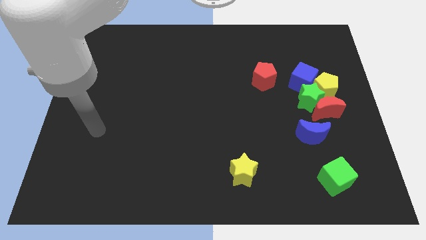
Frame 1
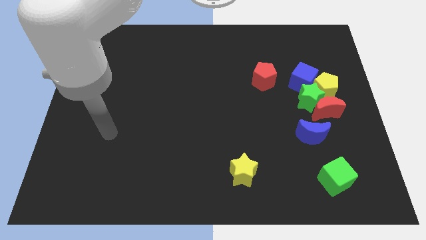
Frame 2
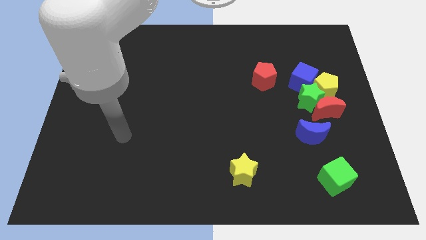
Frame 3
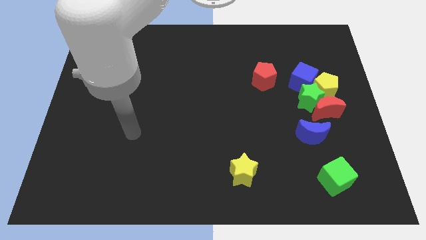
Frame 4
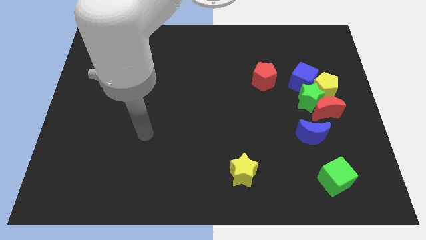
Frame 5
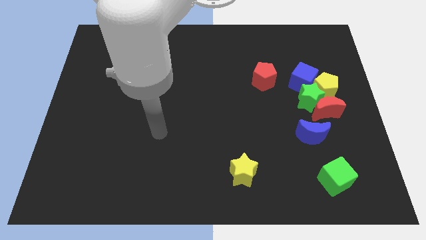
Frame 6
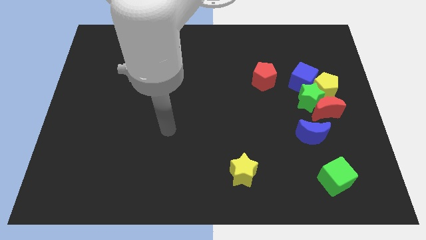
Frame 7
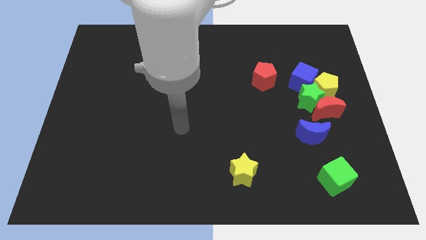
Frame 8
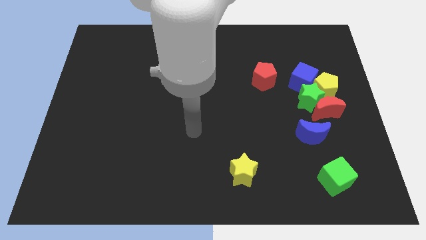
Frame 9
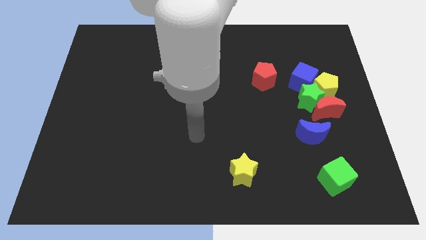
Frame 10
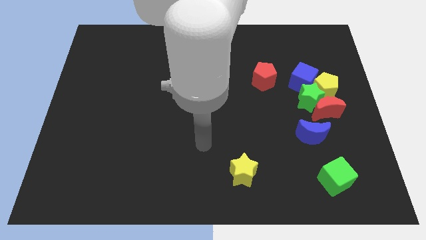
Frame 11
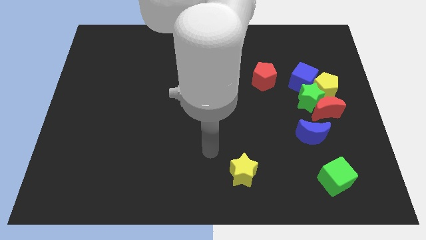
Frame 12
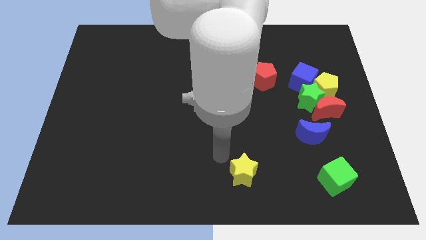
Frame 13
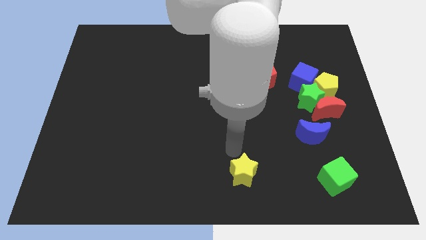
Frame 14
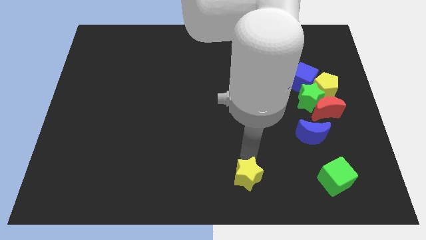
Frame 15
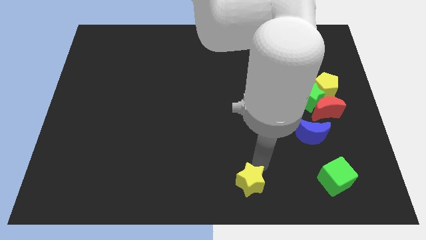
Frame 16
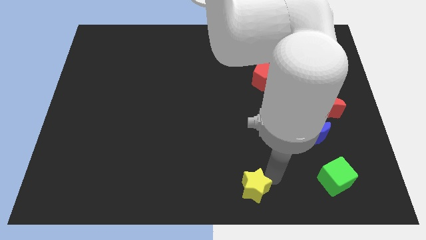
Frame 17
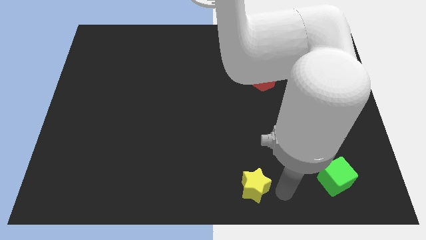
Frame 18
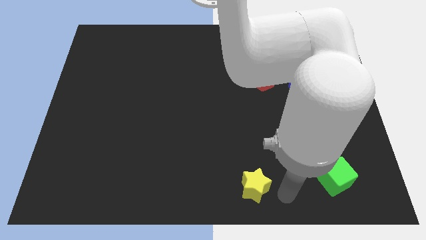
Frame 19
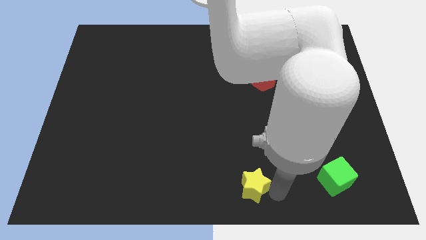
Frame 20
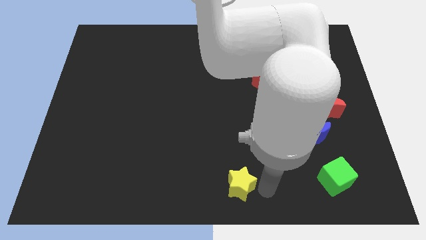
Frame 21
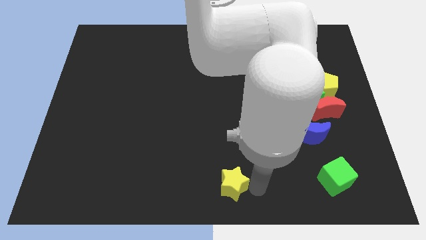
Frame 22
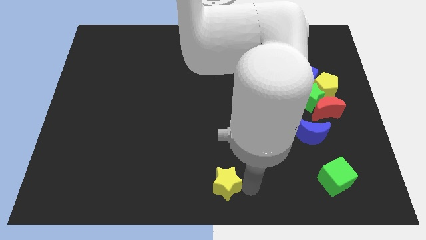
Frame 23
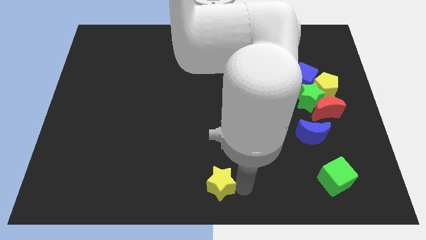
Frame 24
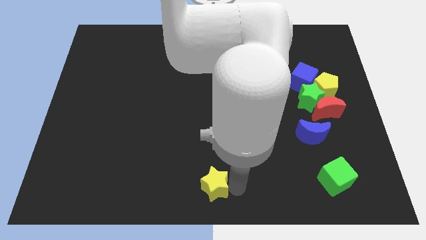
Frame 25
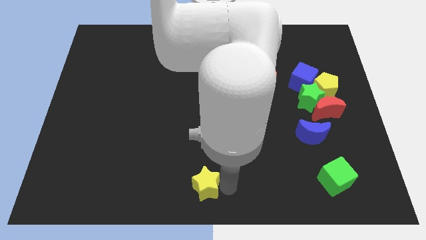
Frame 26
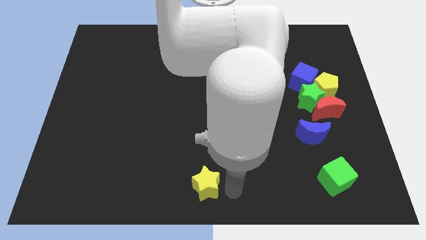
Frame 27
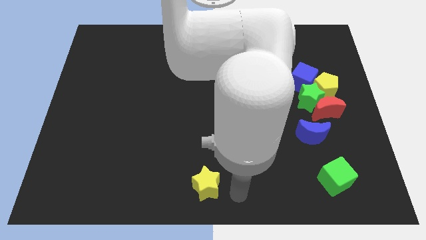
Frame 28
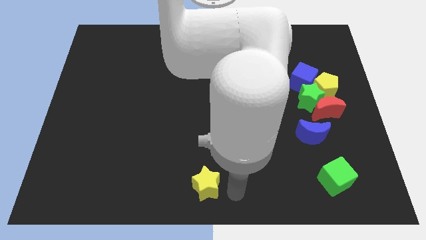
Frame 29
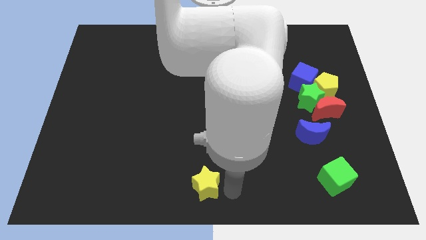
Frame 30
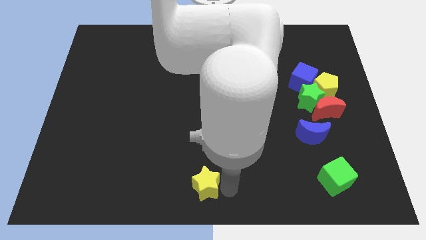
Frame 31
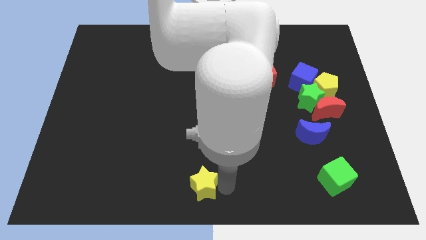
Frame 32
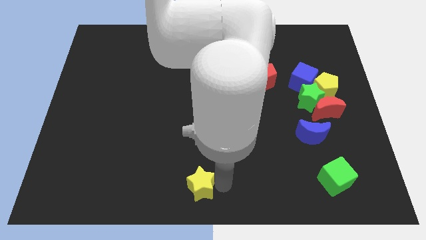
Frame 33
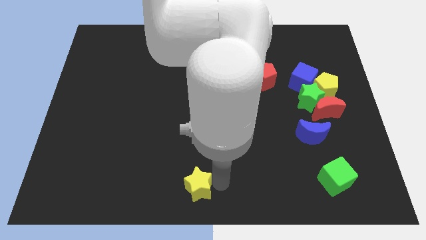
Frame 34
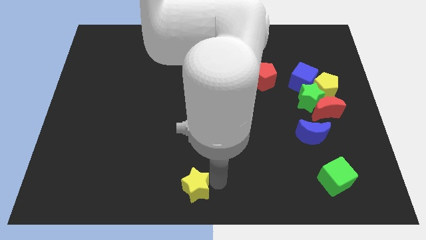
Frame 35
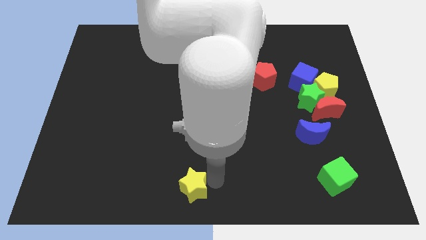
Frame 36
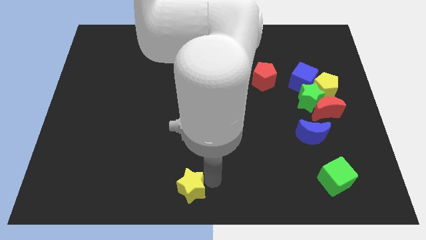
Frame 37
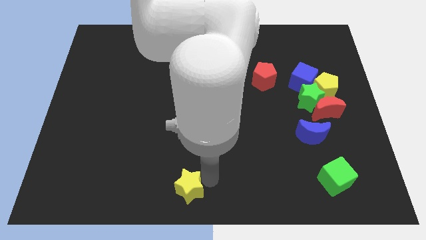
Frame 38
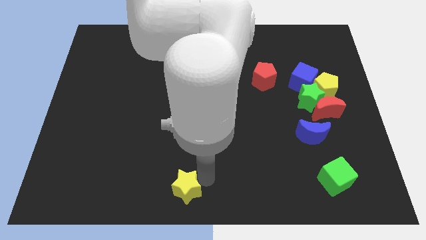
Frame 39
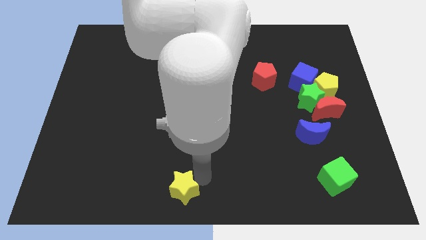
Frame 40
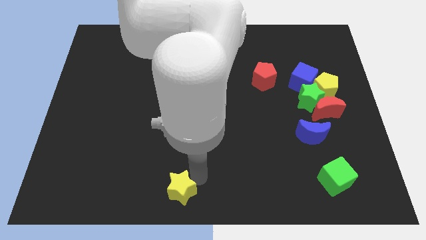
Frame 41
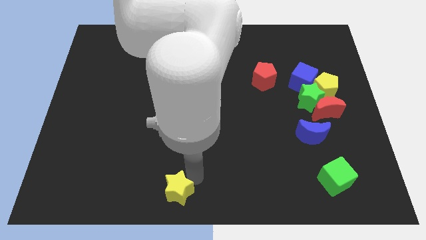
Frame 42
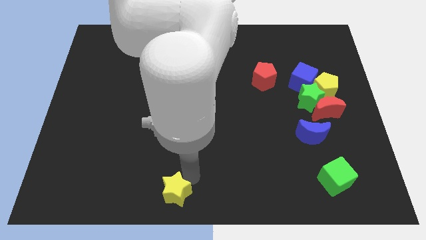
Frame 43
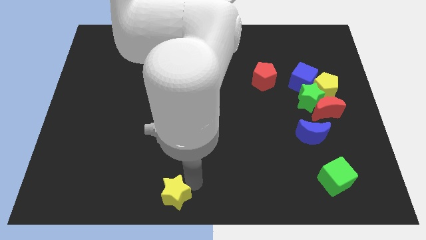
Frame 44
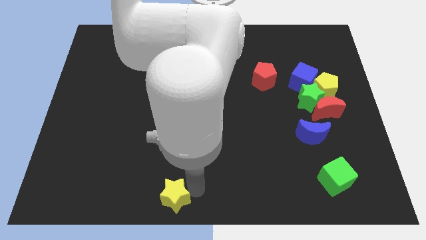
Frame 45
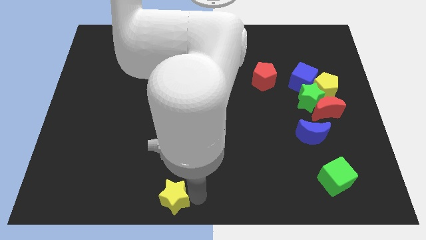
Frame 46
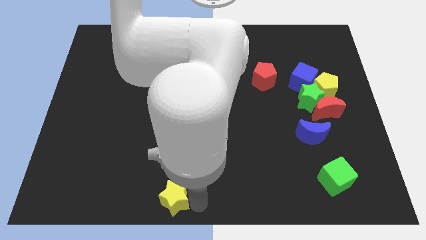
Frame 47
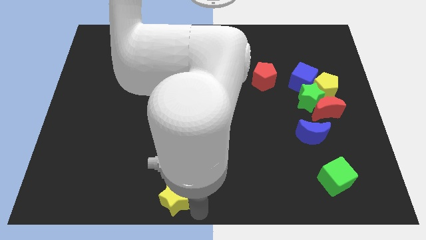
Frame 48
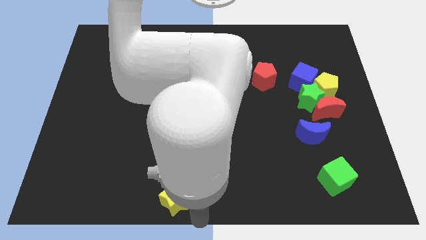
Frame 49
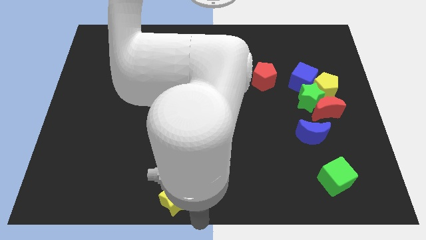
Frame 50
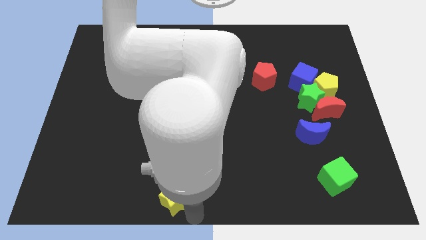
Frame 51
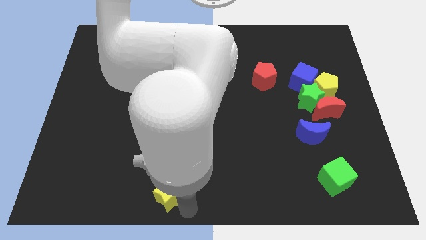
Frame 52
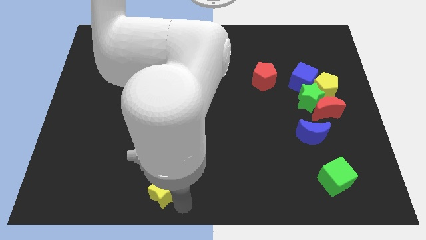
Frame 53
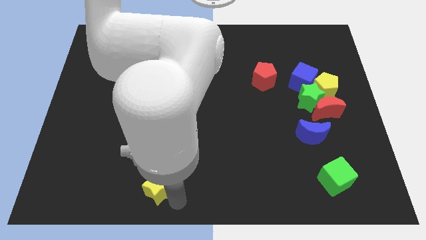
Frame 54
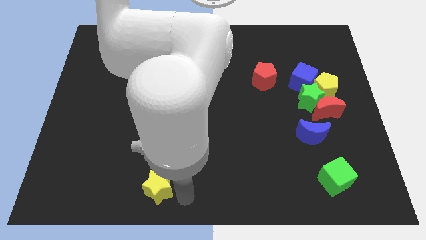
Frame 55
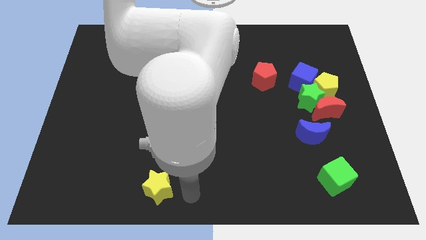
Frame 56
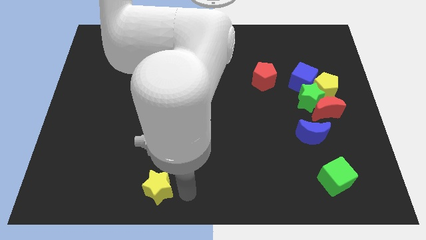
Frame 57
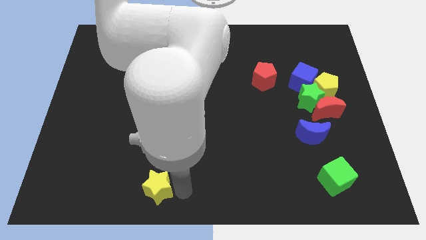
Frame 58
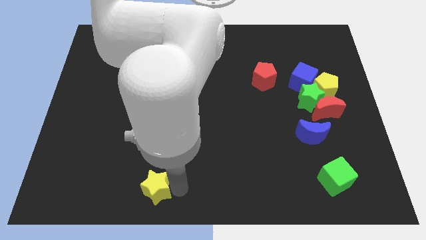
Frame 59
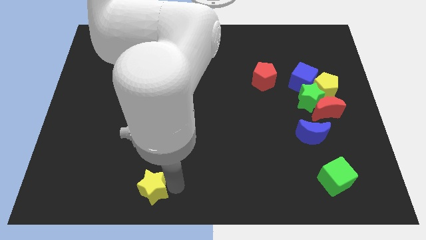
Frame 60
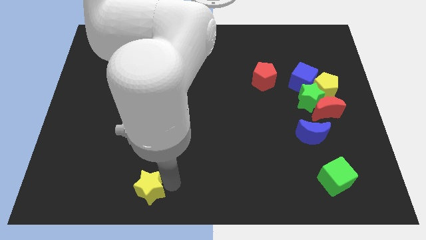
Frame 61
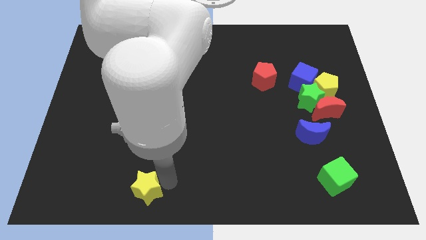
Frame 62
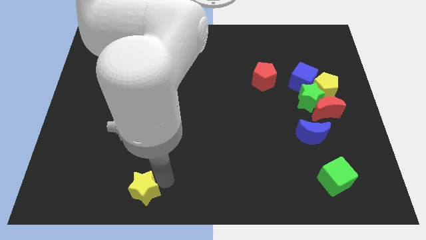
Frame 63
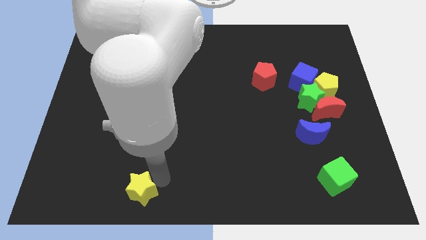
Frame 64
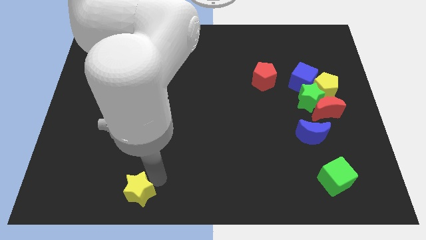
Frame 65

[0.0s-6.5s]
slide the yellow star to the left

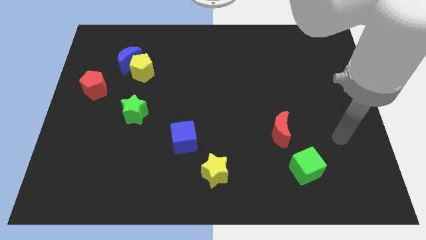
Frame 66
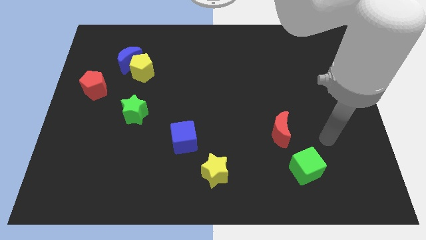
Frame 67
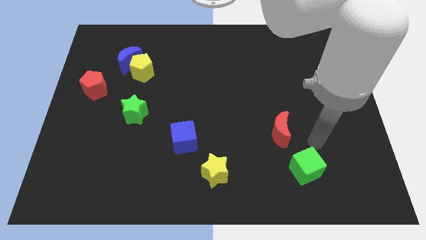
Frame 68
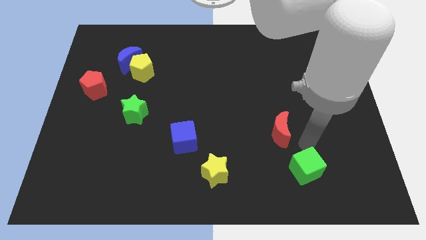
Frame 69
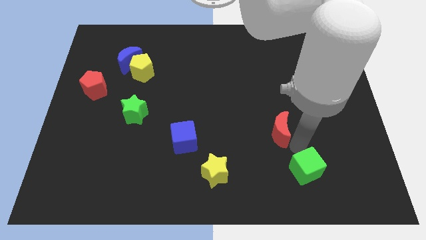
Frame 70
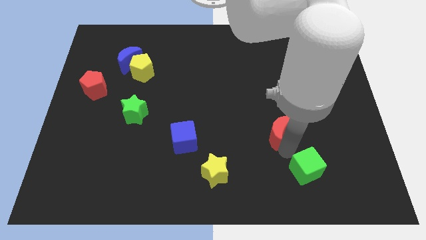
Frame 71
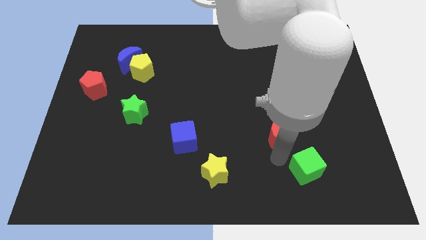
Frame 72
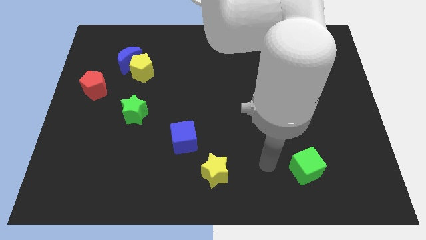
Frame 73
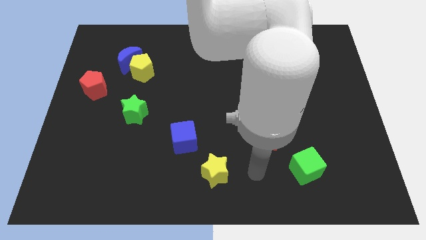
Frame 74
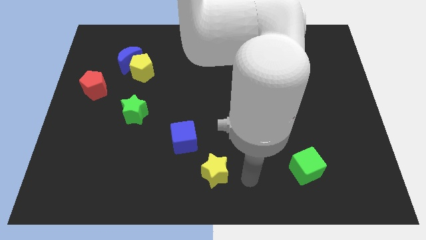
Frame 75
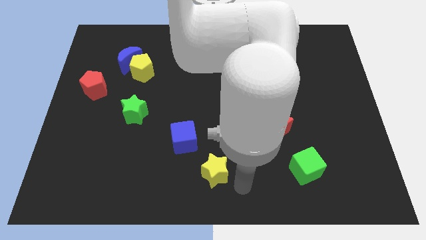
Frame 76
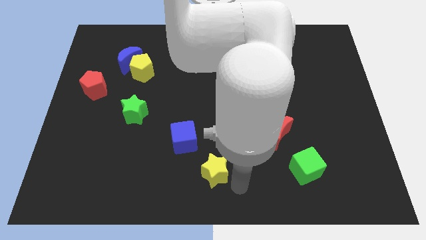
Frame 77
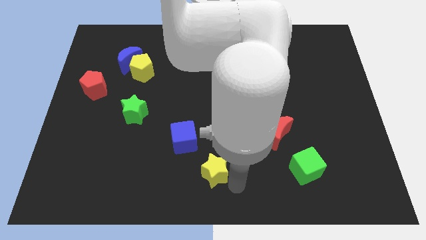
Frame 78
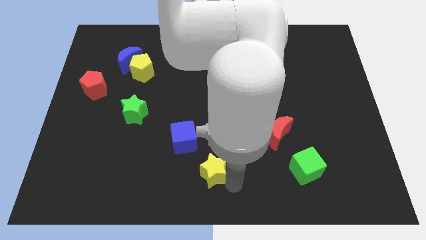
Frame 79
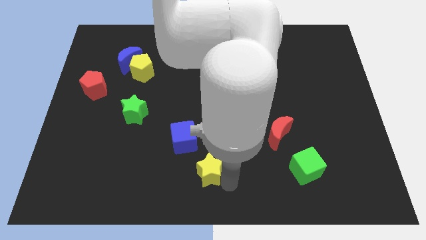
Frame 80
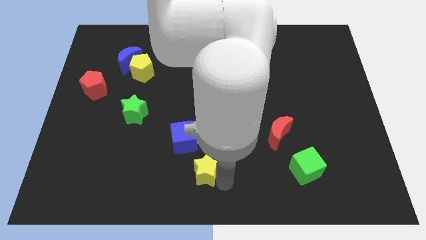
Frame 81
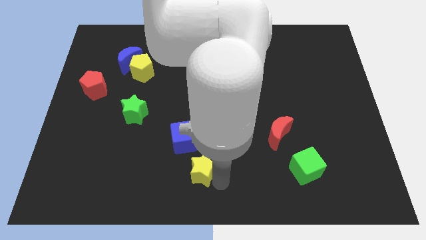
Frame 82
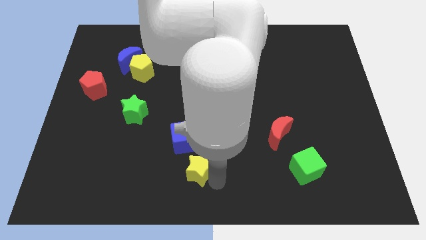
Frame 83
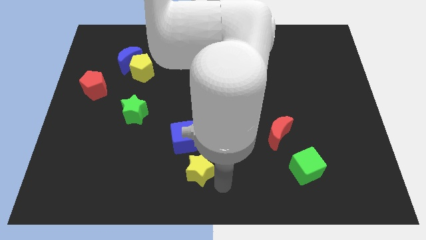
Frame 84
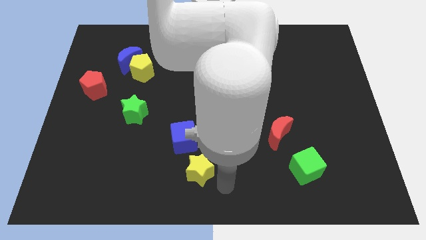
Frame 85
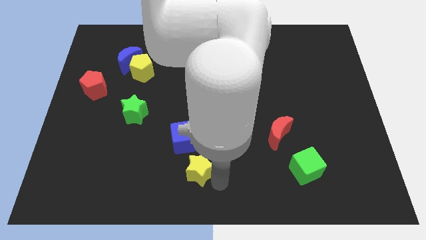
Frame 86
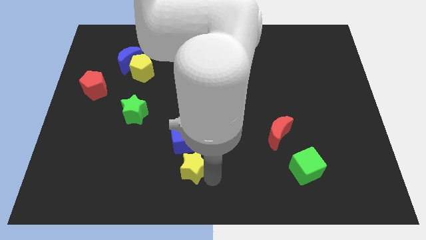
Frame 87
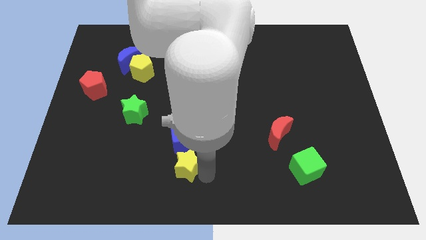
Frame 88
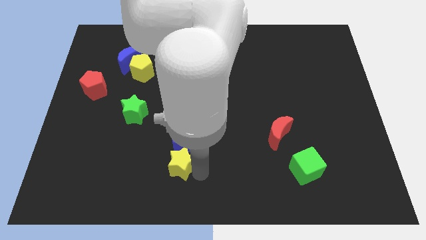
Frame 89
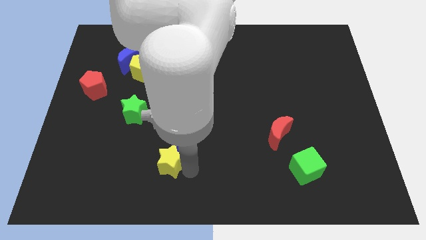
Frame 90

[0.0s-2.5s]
push the yellow star slightly up and to the left
